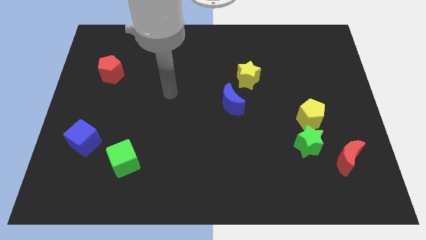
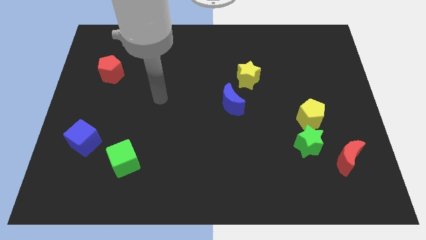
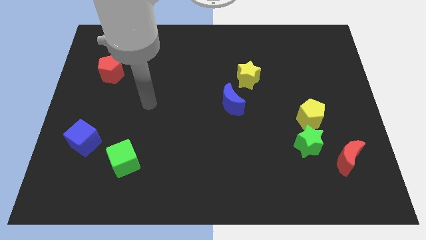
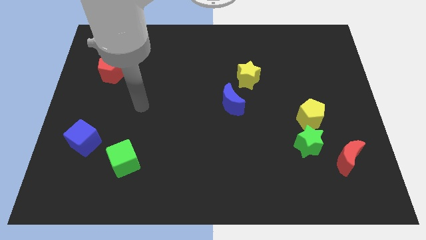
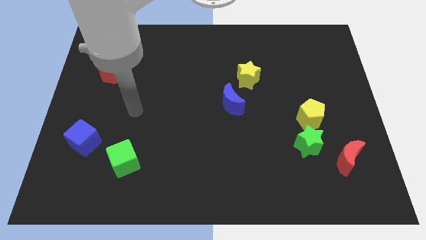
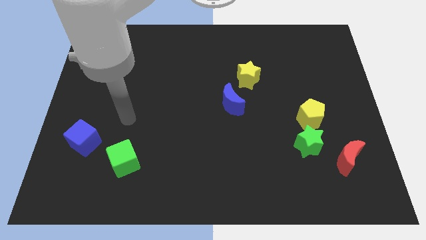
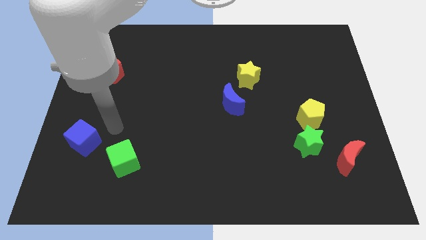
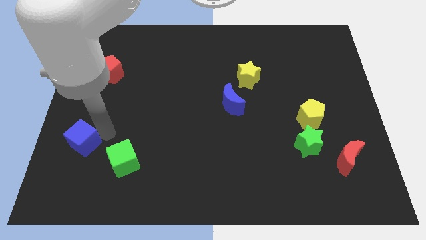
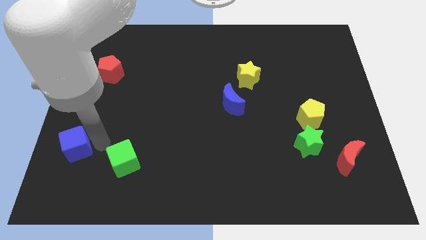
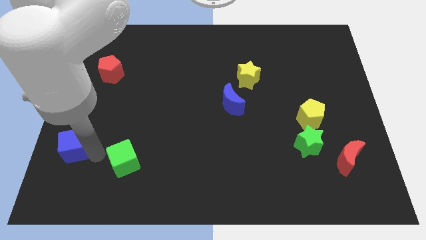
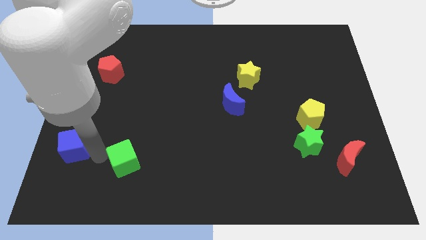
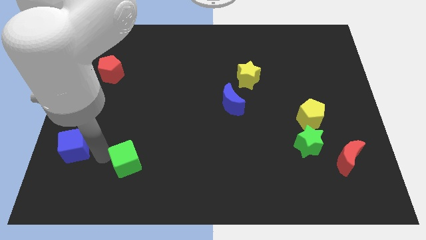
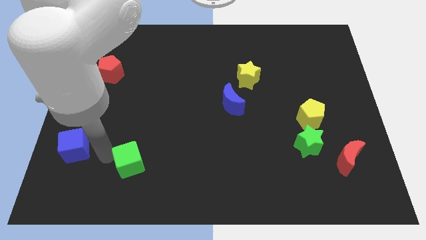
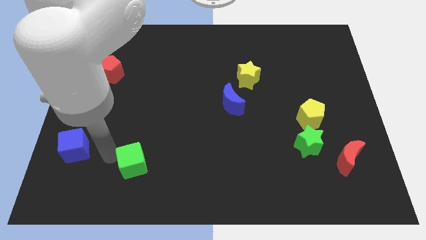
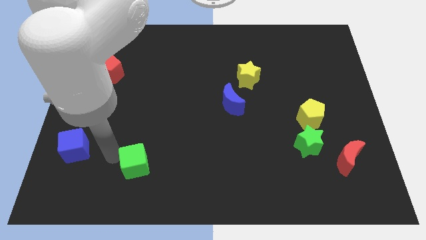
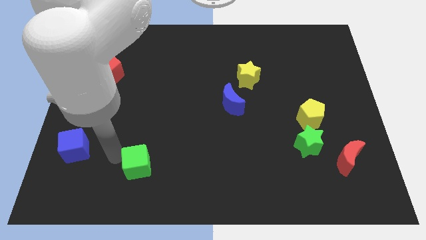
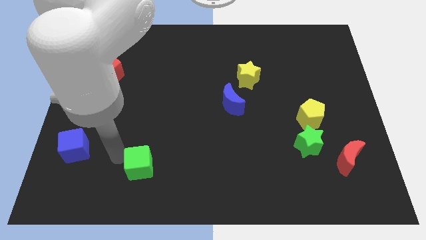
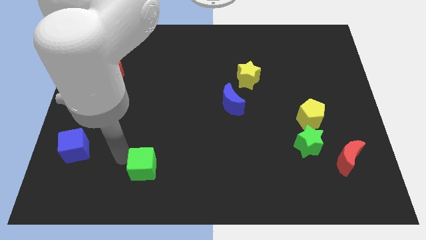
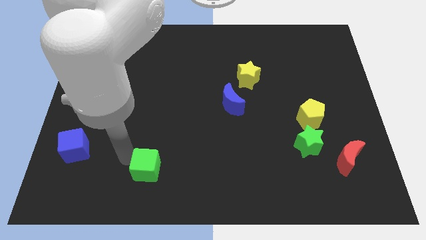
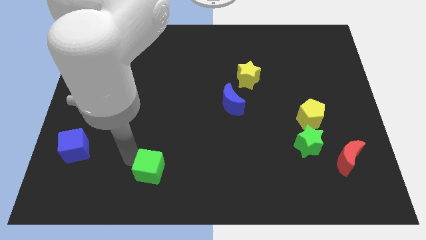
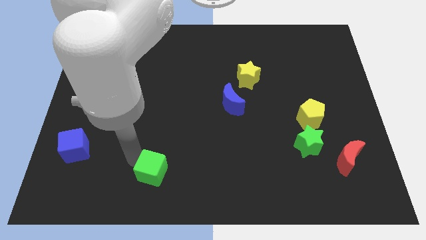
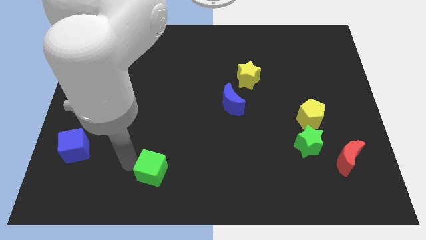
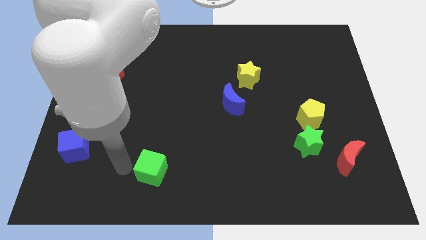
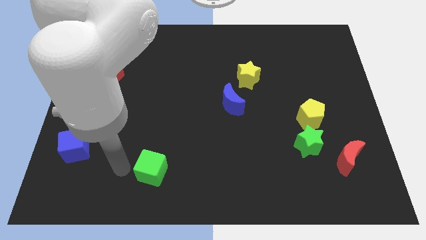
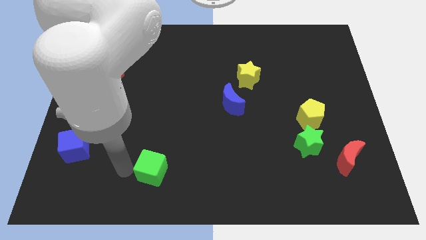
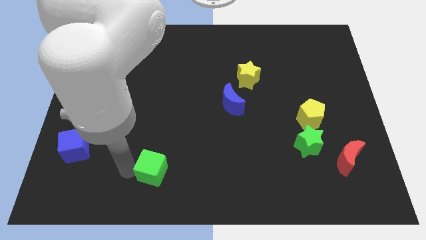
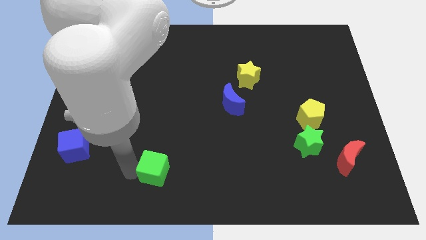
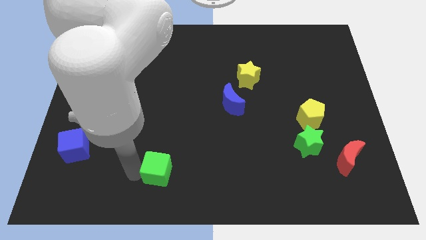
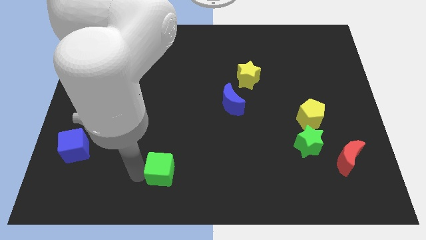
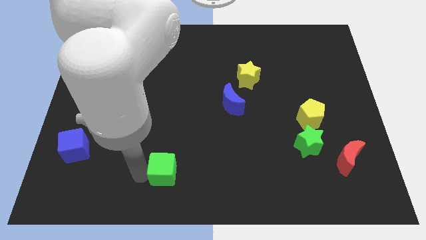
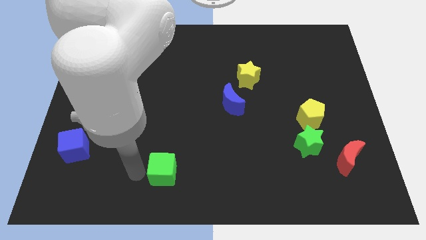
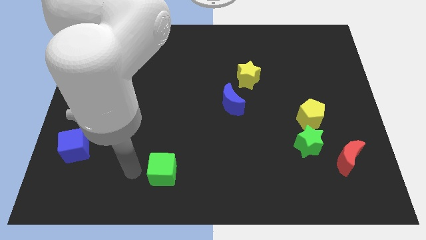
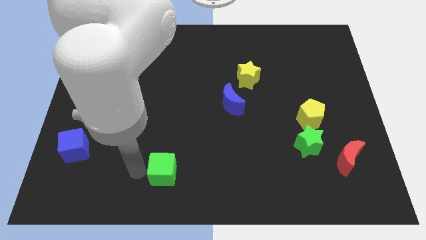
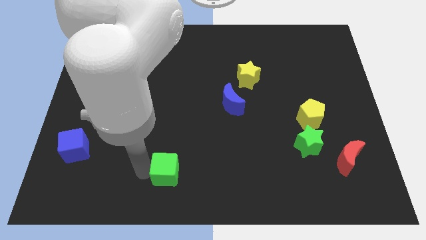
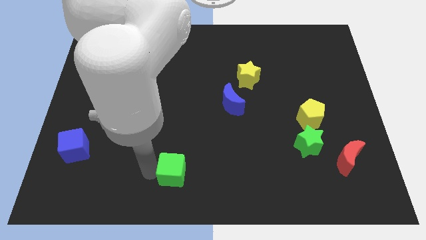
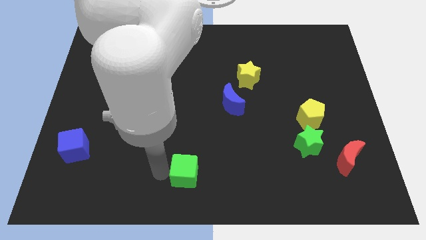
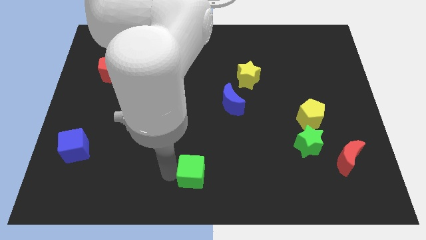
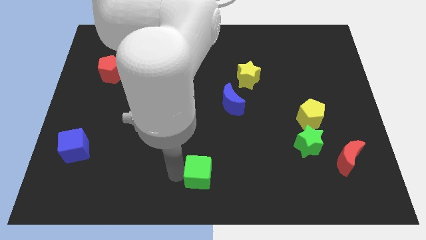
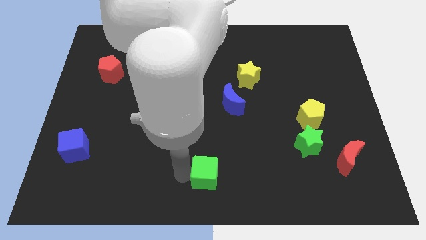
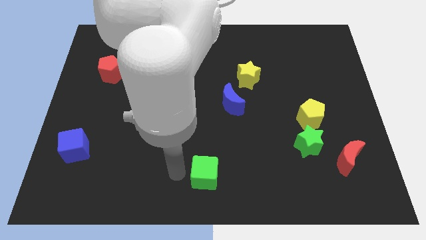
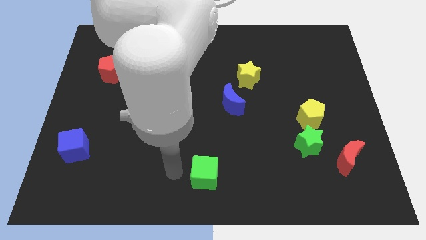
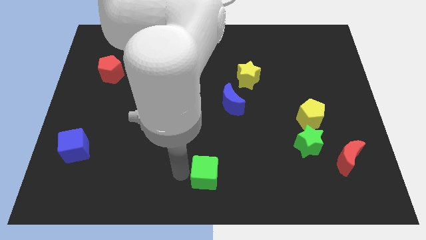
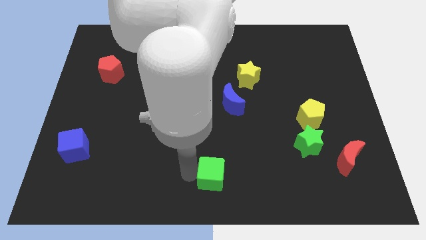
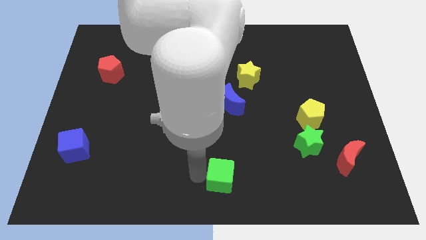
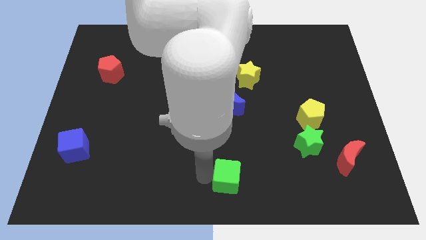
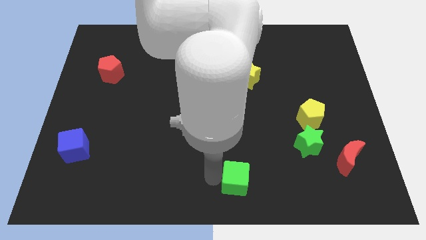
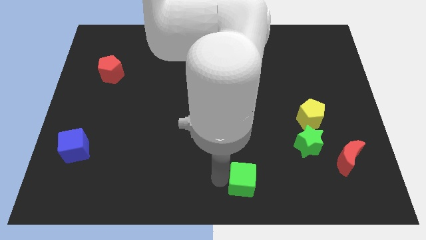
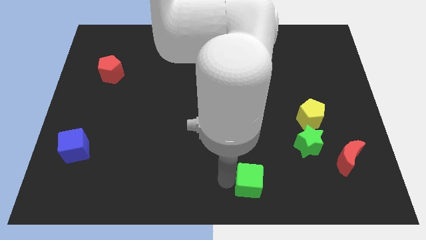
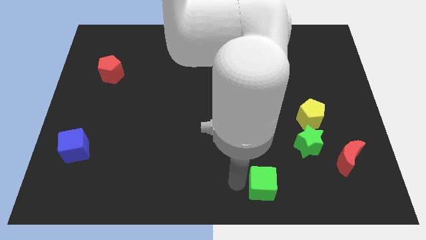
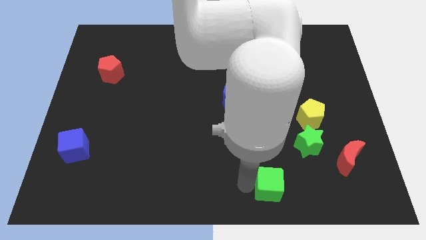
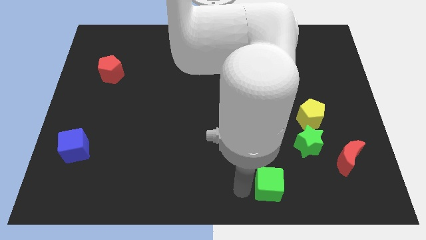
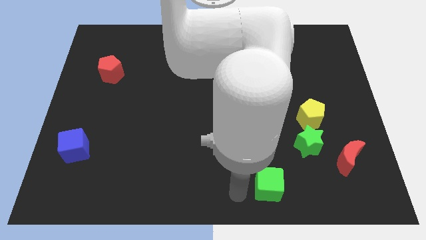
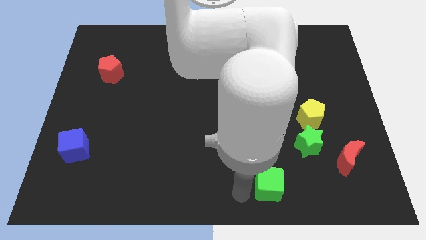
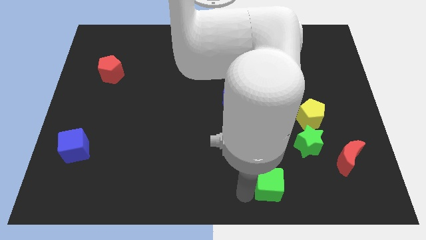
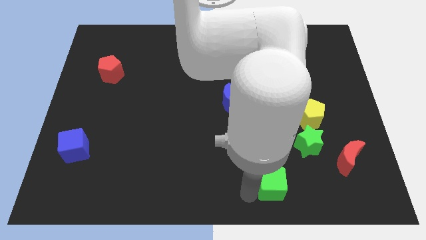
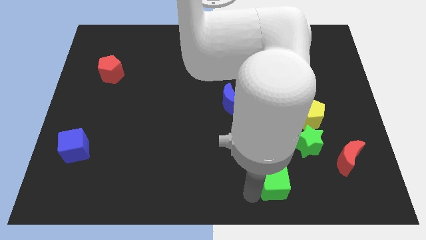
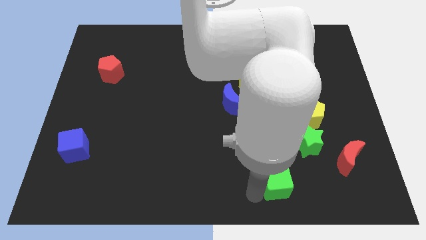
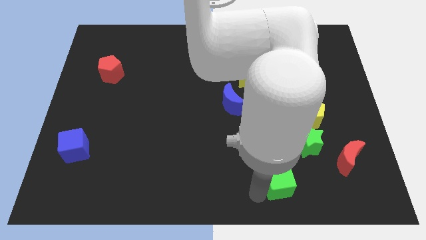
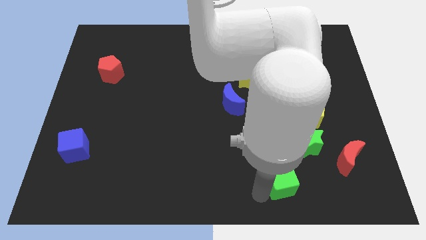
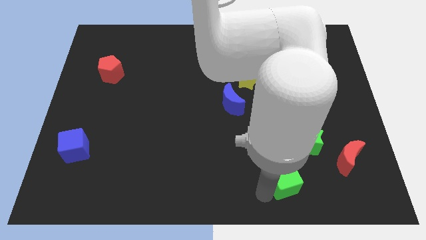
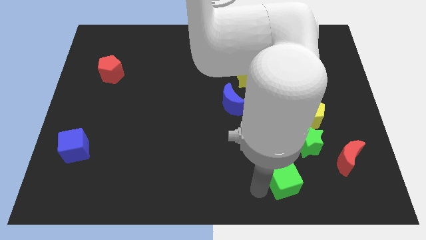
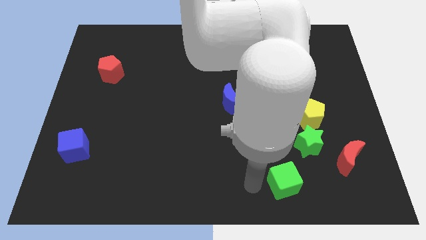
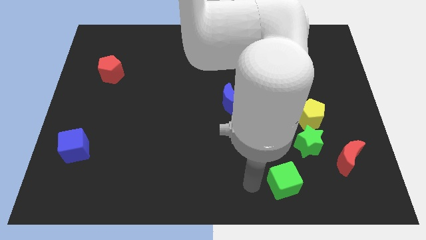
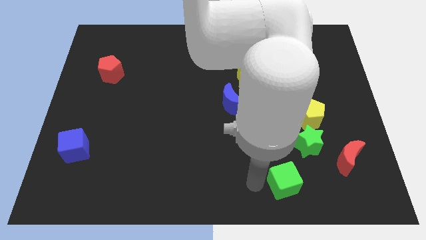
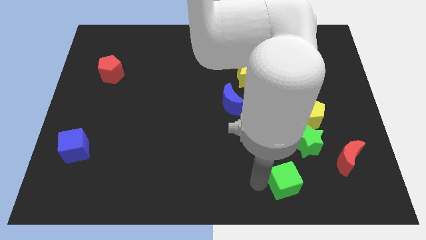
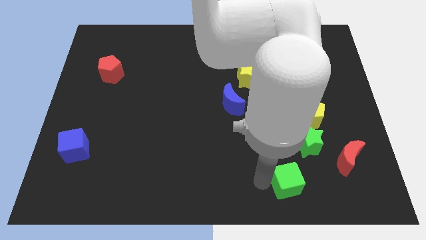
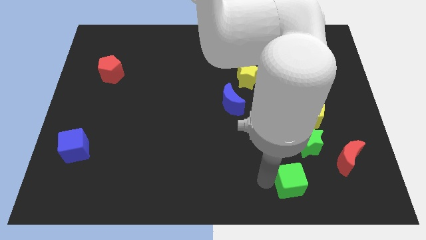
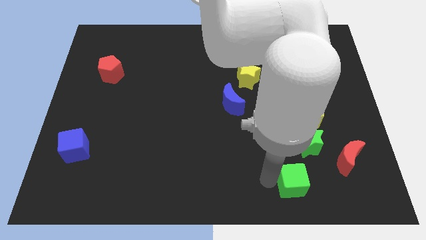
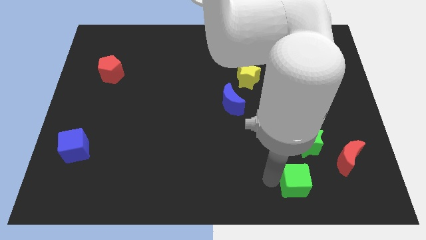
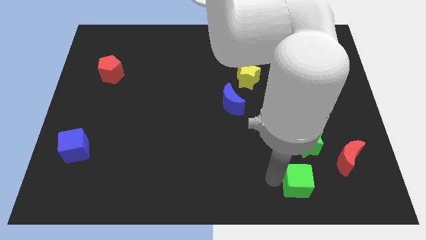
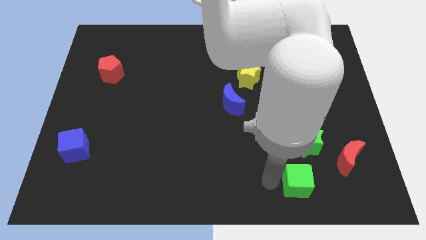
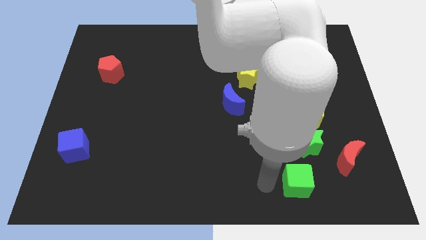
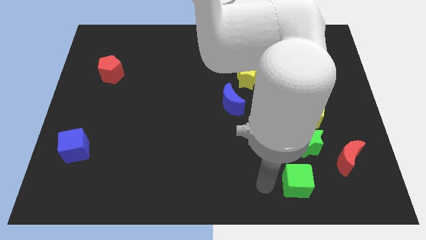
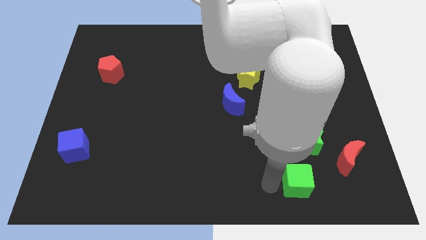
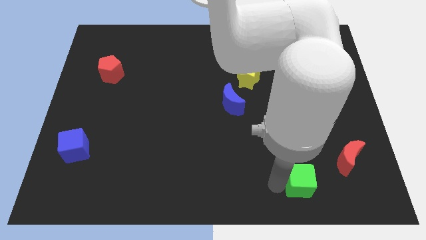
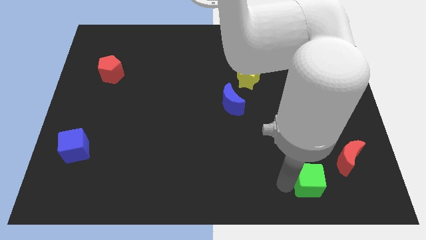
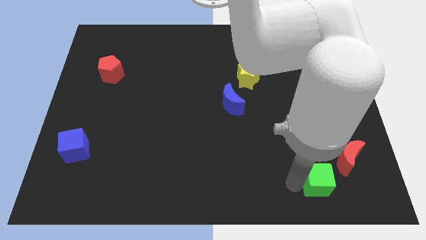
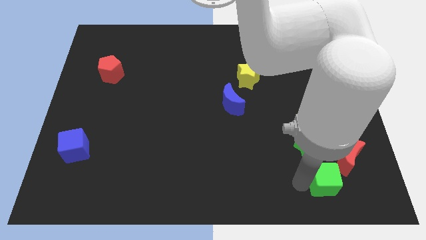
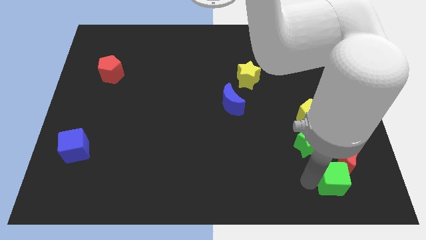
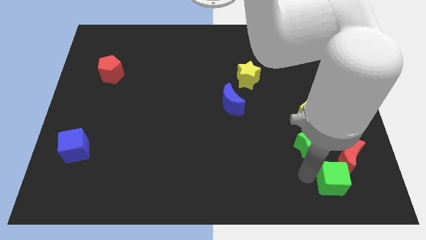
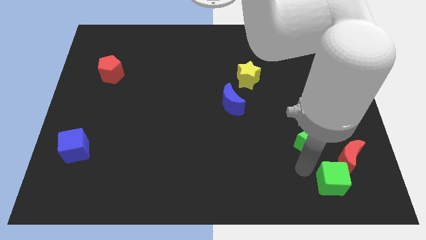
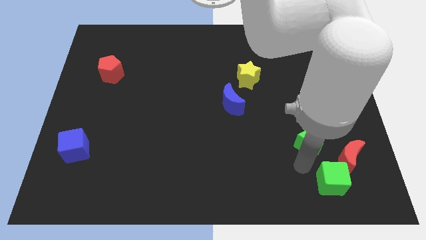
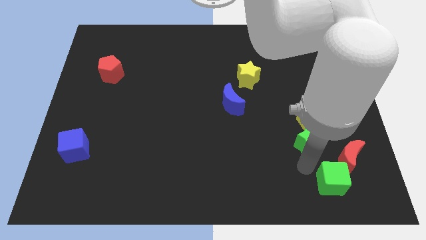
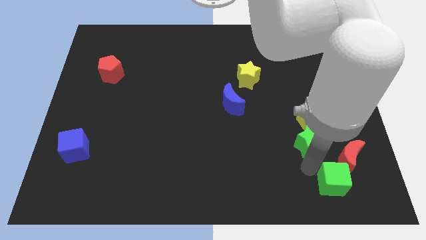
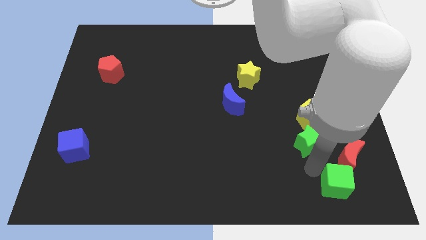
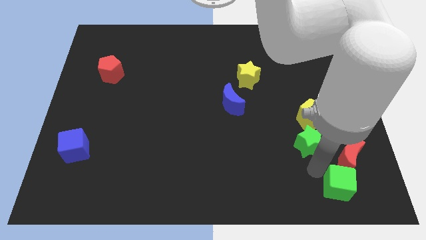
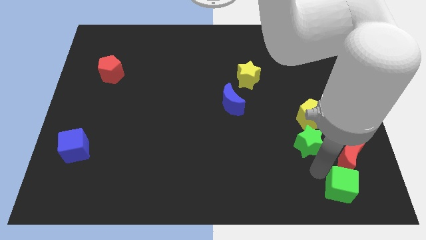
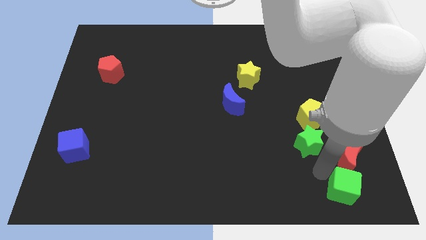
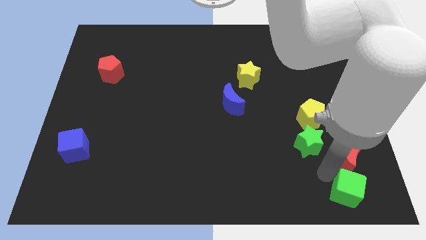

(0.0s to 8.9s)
move the green cube to the bottom right
